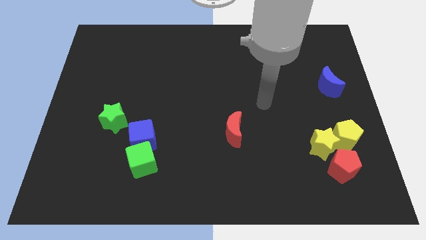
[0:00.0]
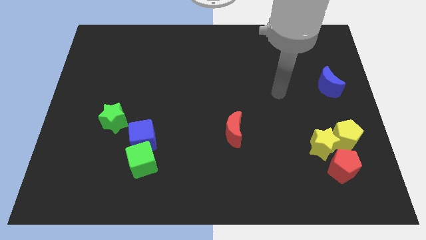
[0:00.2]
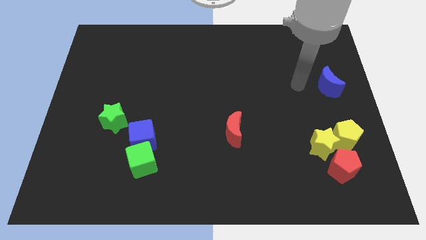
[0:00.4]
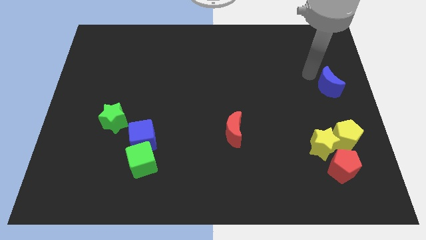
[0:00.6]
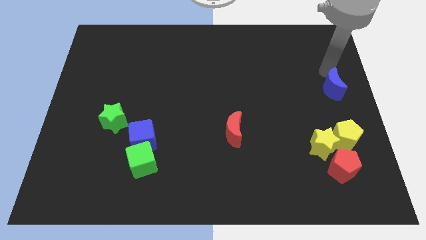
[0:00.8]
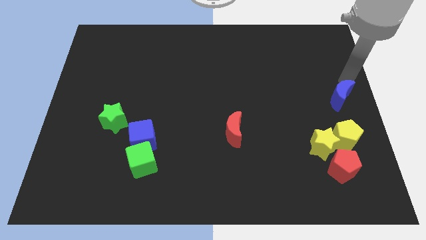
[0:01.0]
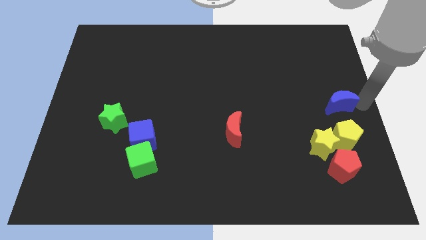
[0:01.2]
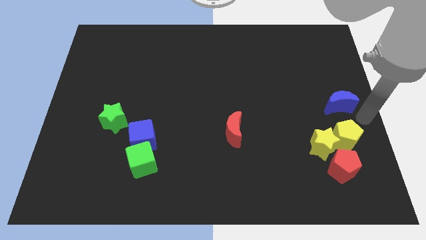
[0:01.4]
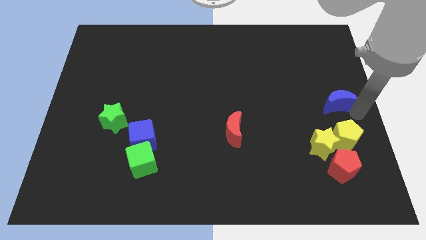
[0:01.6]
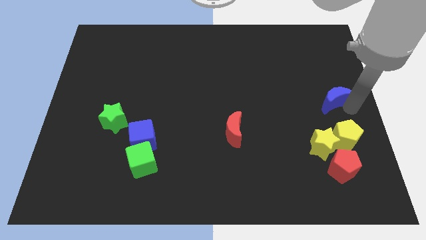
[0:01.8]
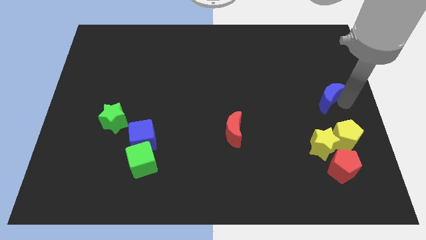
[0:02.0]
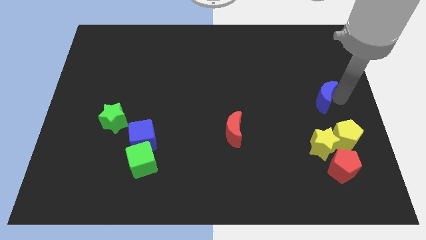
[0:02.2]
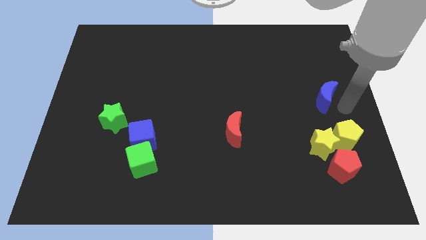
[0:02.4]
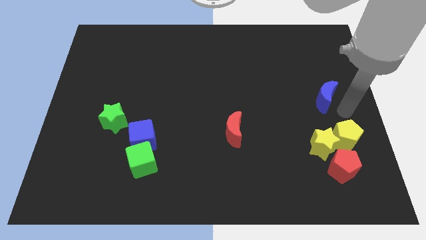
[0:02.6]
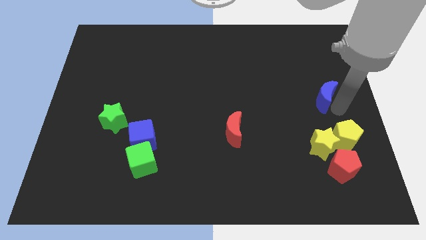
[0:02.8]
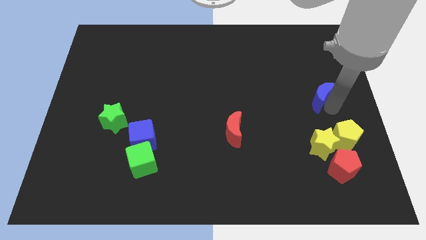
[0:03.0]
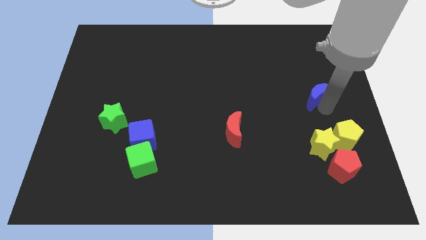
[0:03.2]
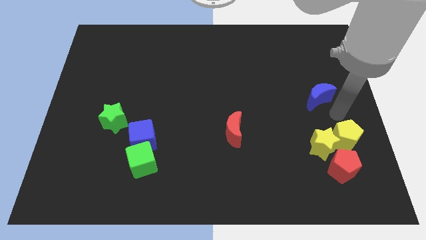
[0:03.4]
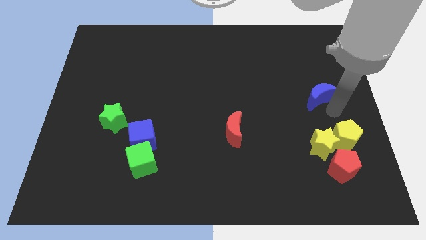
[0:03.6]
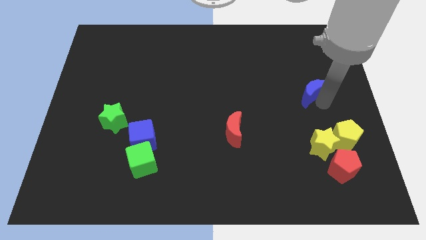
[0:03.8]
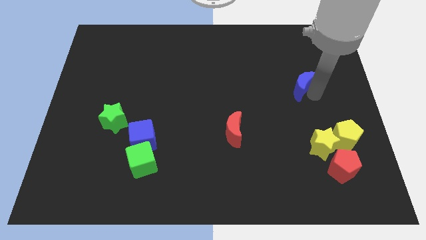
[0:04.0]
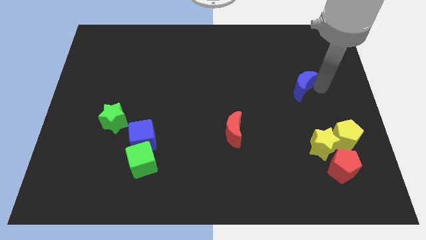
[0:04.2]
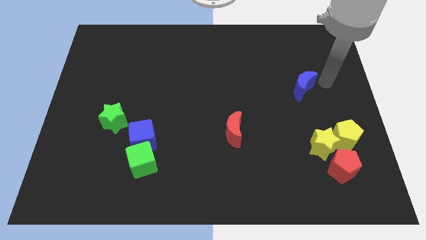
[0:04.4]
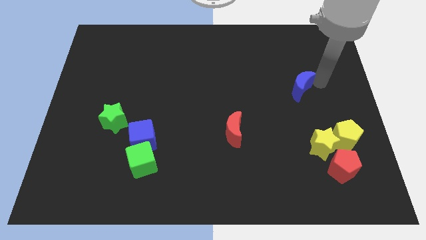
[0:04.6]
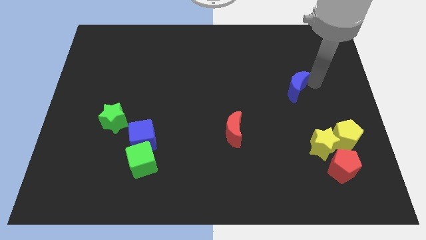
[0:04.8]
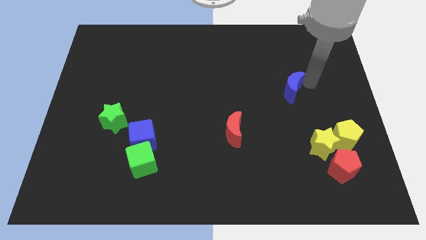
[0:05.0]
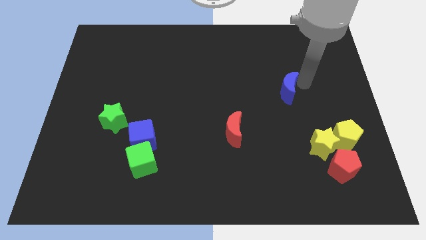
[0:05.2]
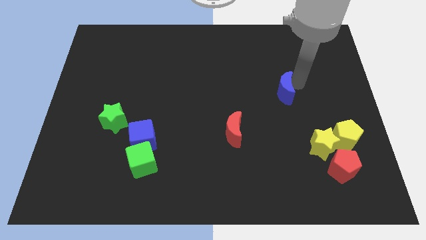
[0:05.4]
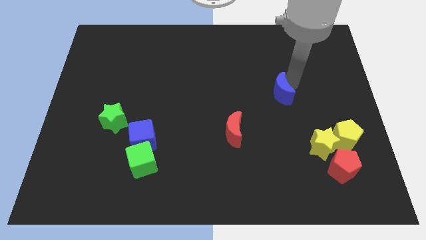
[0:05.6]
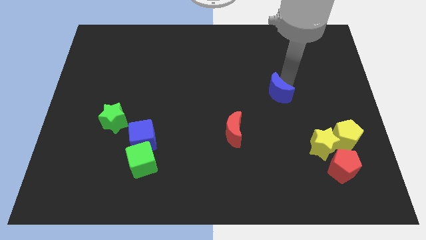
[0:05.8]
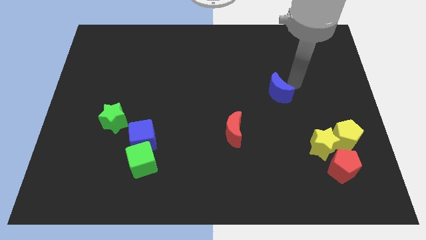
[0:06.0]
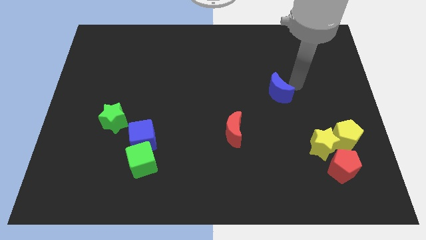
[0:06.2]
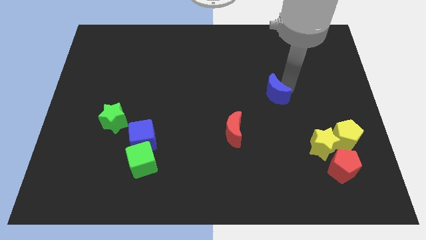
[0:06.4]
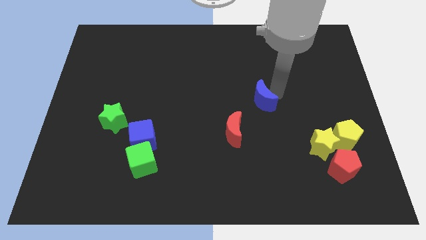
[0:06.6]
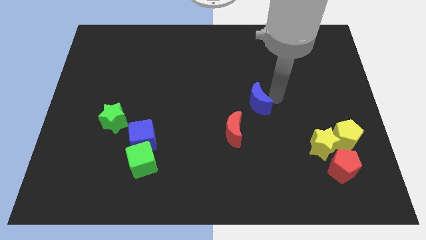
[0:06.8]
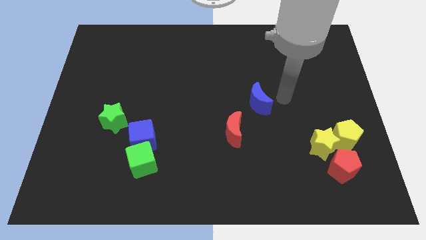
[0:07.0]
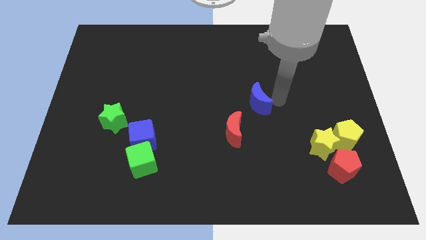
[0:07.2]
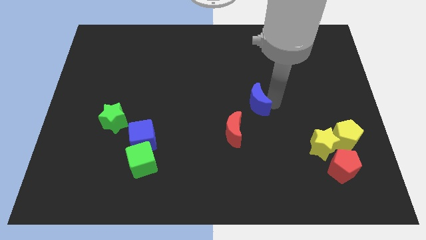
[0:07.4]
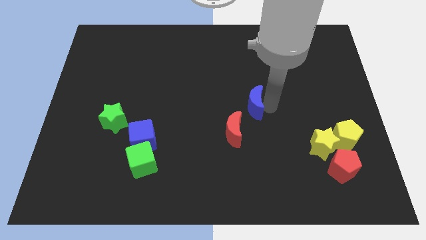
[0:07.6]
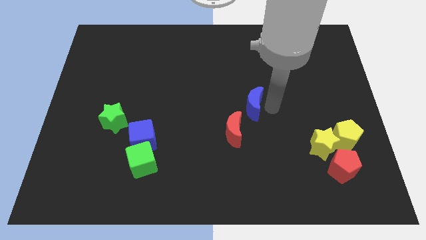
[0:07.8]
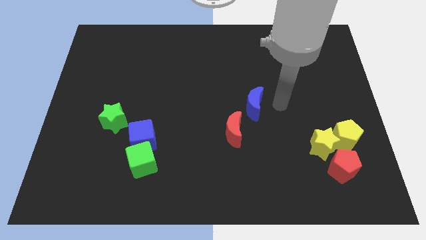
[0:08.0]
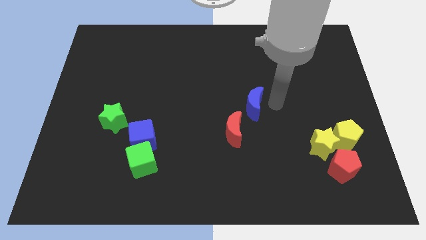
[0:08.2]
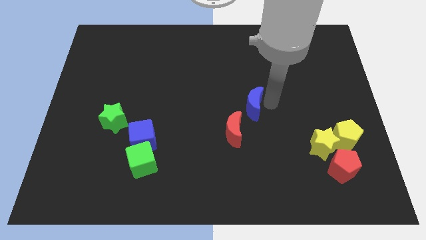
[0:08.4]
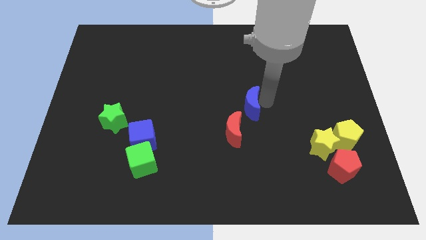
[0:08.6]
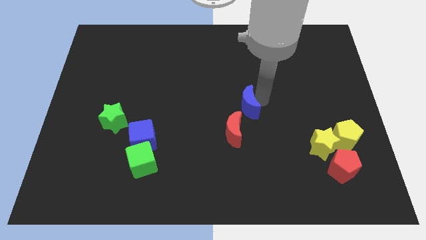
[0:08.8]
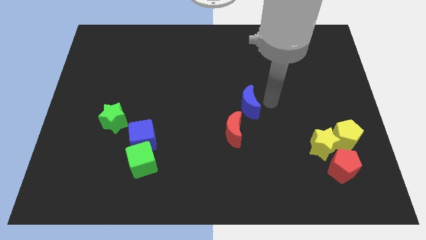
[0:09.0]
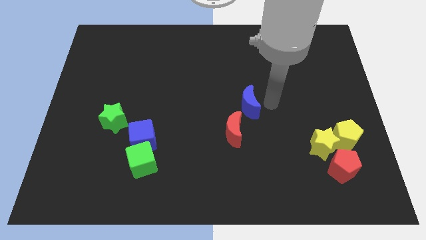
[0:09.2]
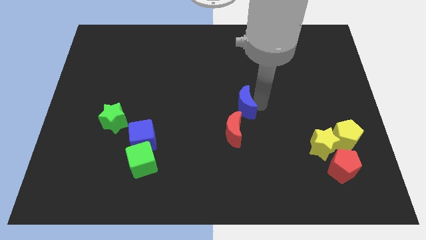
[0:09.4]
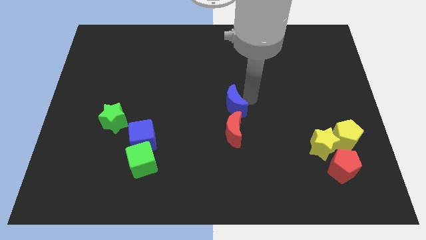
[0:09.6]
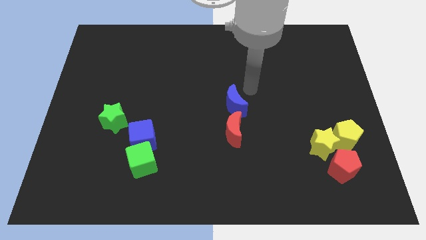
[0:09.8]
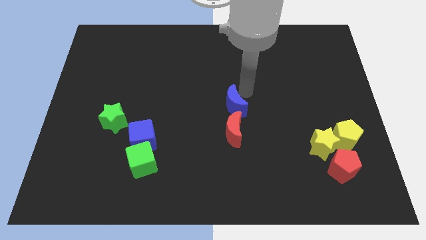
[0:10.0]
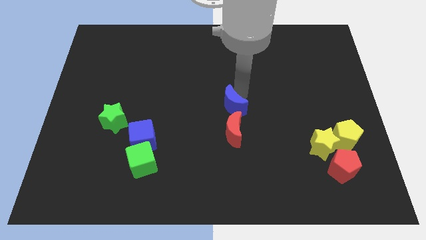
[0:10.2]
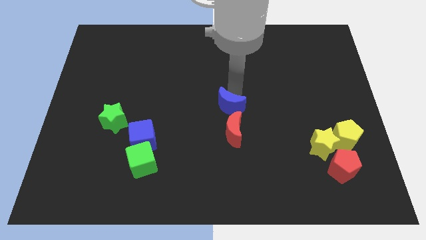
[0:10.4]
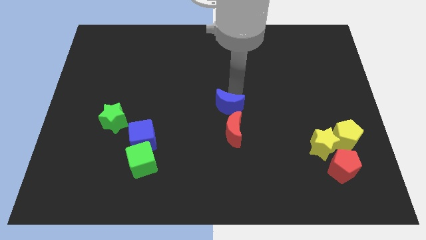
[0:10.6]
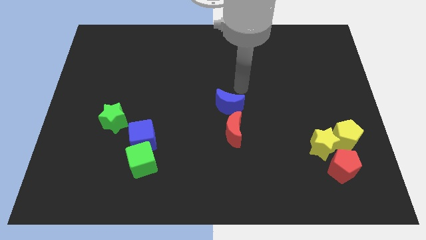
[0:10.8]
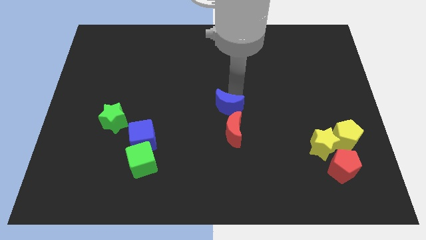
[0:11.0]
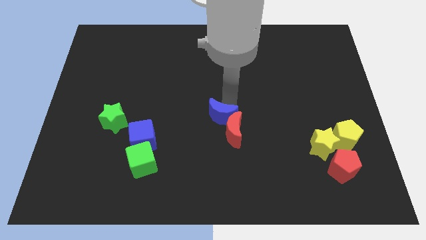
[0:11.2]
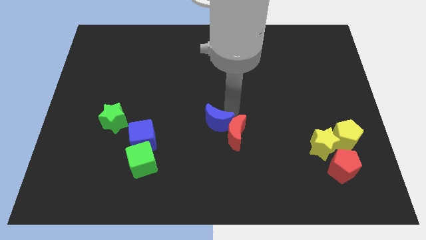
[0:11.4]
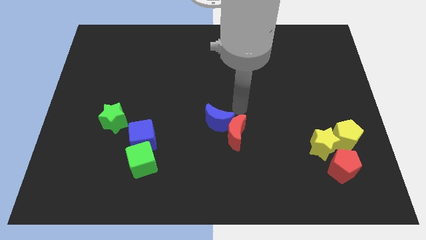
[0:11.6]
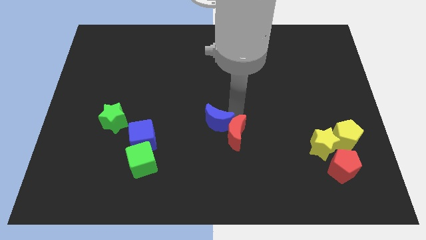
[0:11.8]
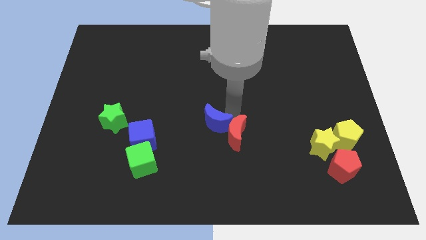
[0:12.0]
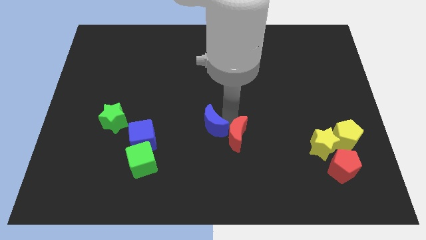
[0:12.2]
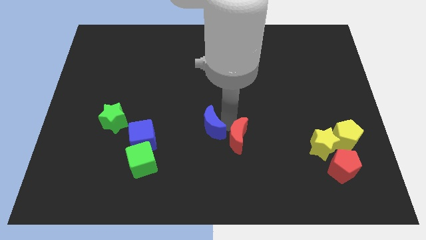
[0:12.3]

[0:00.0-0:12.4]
put the blue moon to the right of the blue cube

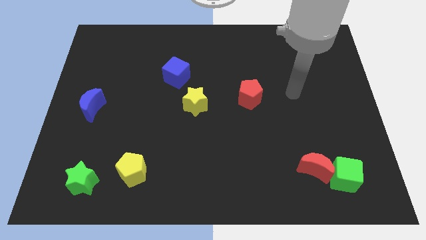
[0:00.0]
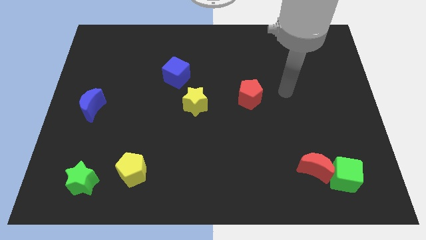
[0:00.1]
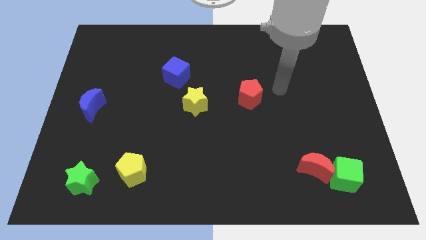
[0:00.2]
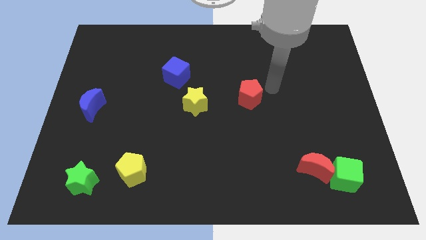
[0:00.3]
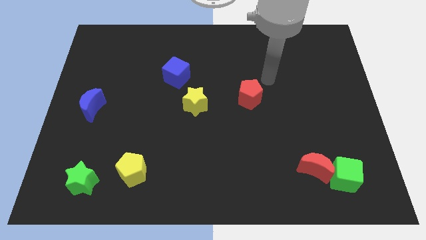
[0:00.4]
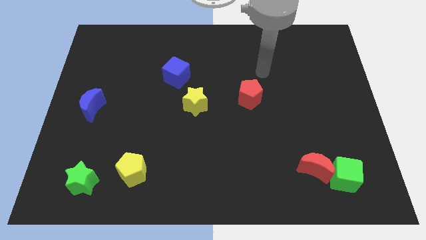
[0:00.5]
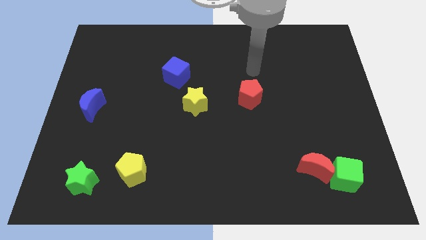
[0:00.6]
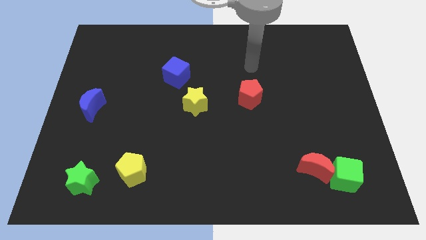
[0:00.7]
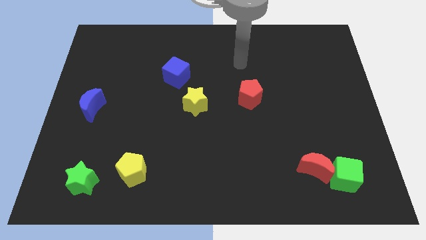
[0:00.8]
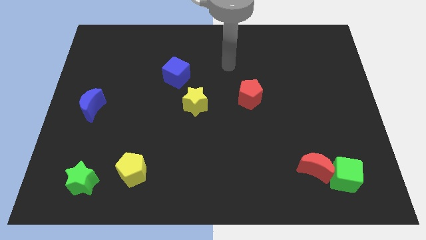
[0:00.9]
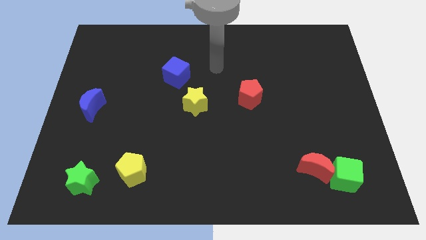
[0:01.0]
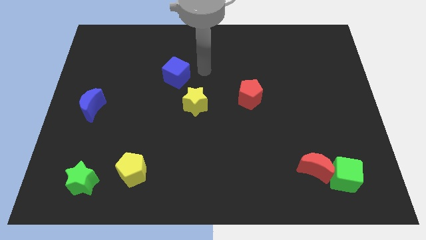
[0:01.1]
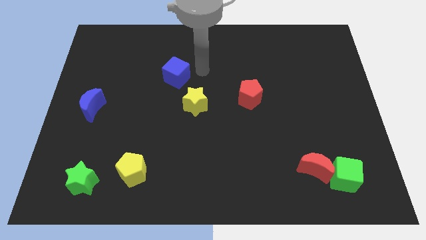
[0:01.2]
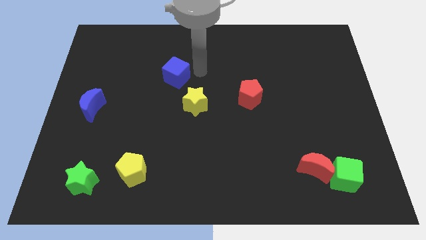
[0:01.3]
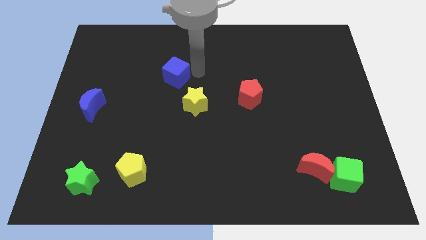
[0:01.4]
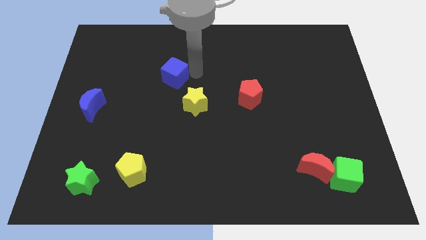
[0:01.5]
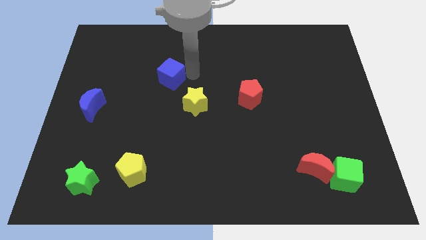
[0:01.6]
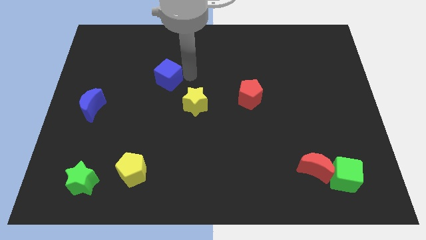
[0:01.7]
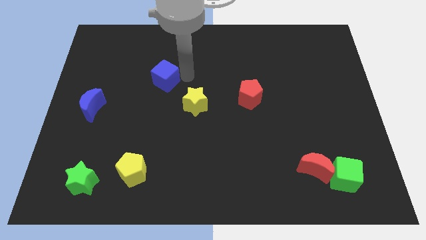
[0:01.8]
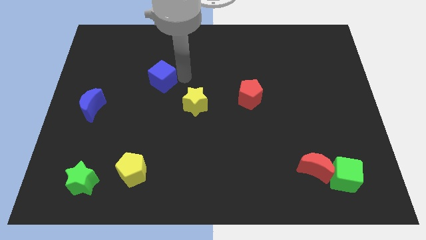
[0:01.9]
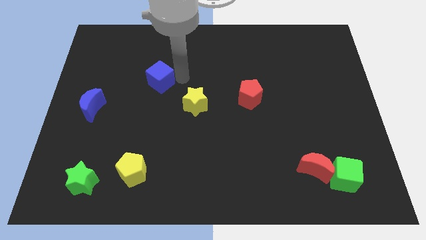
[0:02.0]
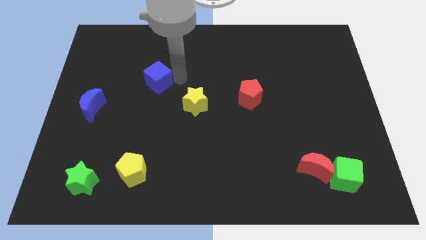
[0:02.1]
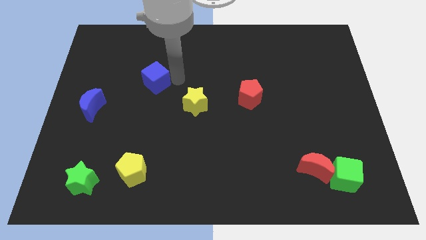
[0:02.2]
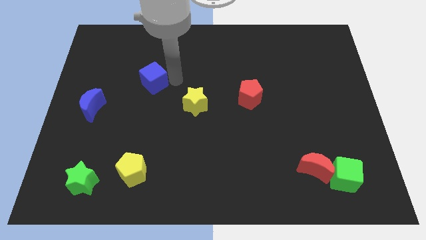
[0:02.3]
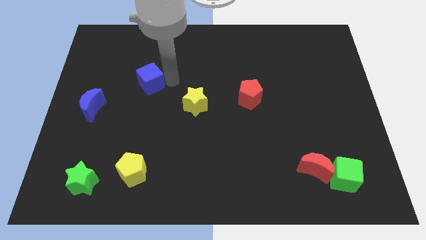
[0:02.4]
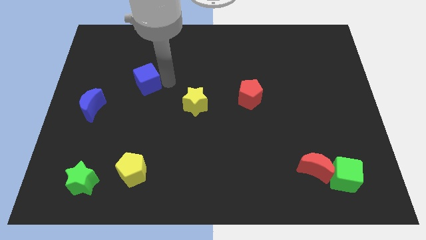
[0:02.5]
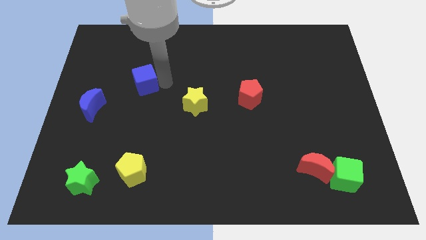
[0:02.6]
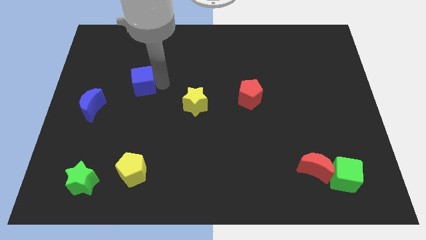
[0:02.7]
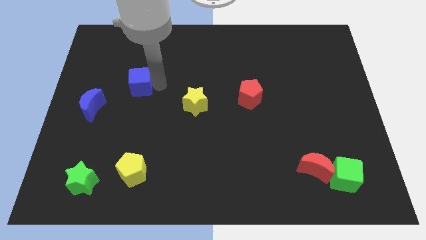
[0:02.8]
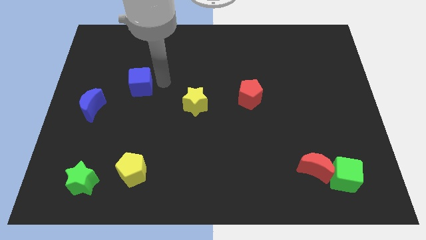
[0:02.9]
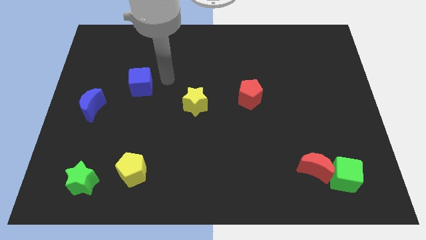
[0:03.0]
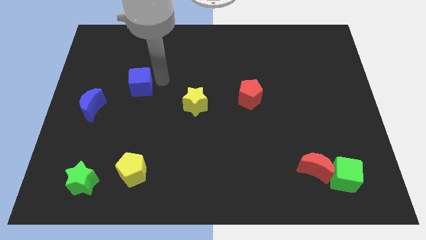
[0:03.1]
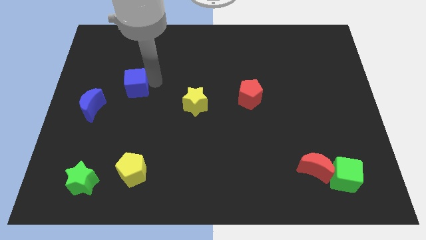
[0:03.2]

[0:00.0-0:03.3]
push the blue cube to the top right side of the blue moon
